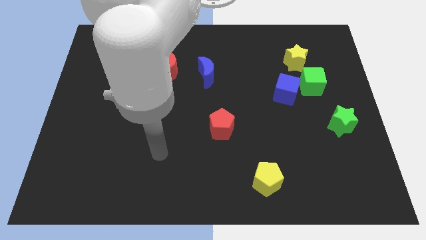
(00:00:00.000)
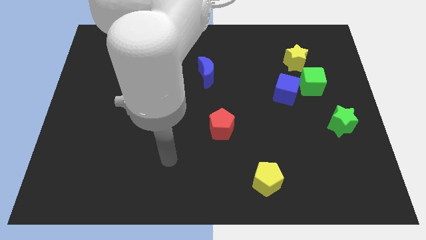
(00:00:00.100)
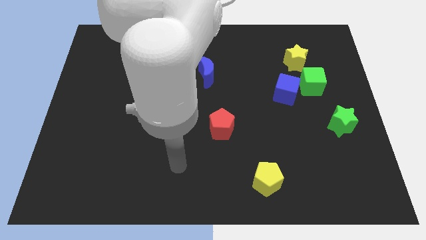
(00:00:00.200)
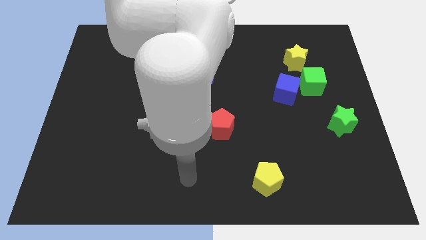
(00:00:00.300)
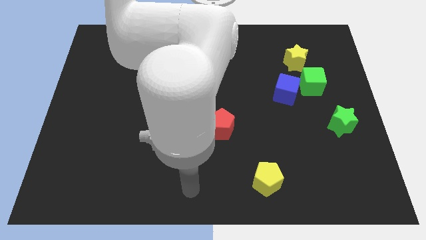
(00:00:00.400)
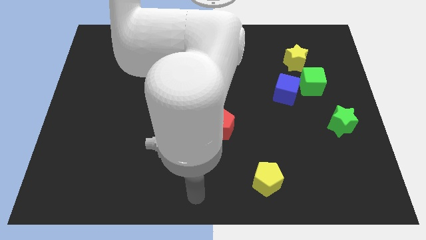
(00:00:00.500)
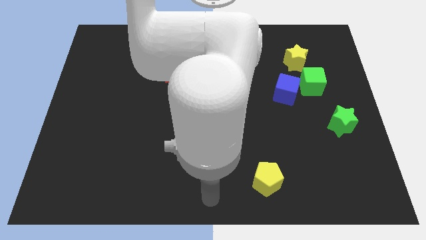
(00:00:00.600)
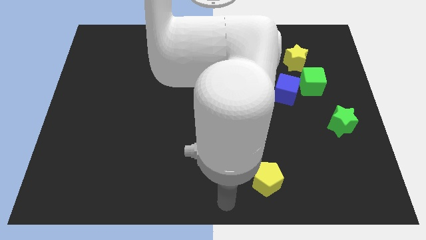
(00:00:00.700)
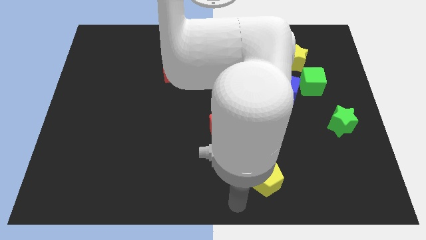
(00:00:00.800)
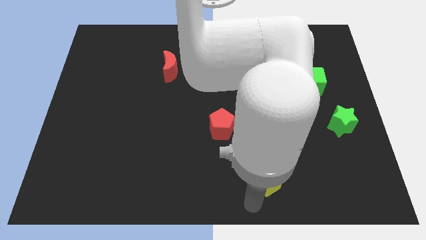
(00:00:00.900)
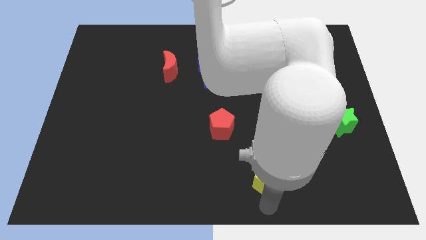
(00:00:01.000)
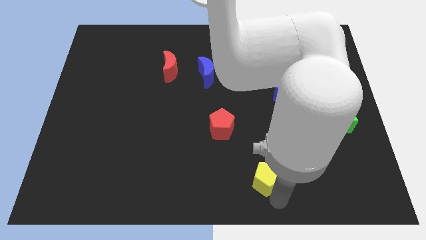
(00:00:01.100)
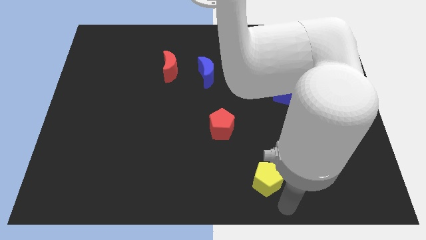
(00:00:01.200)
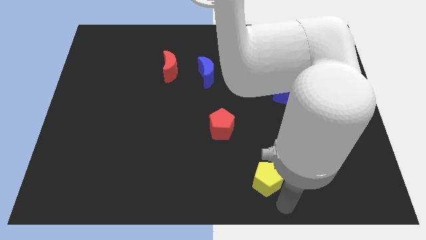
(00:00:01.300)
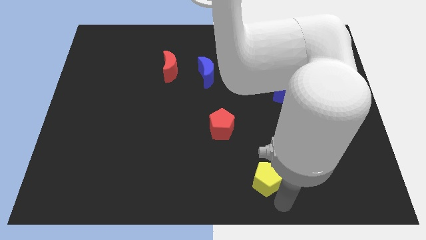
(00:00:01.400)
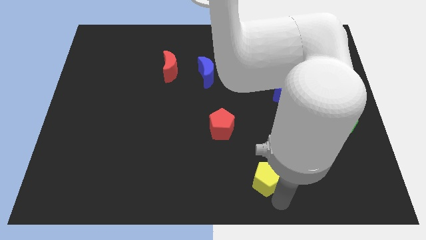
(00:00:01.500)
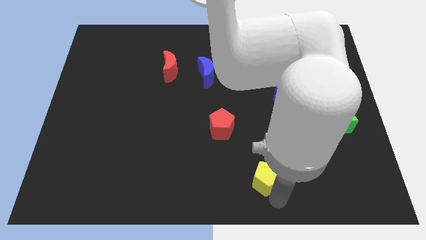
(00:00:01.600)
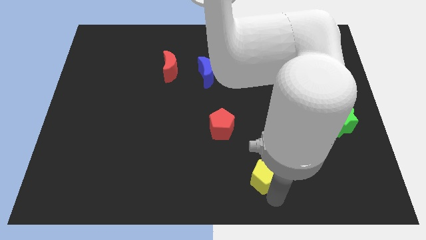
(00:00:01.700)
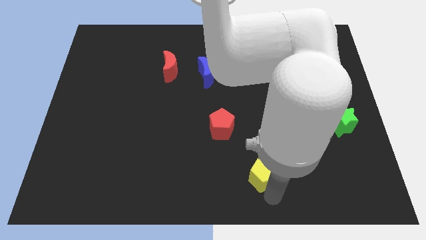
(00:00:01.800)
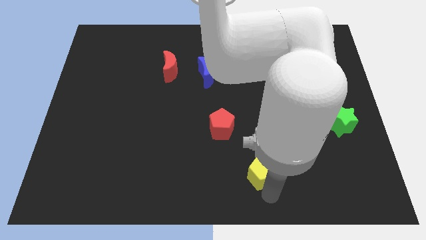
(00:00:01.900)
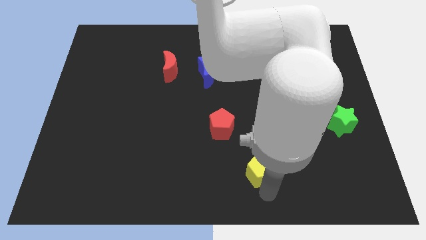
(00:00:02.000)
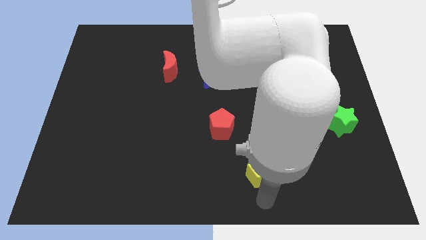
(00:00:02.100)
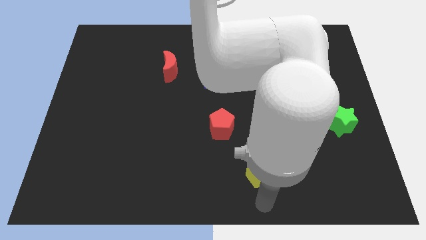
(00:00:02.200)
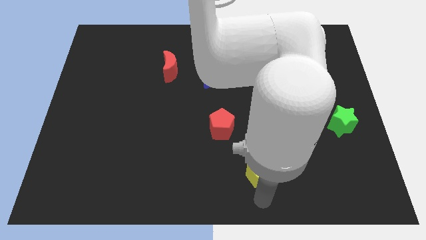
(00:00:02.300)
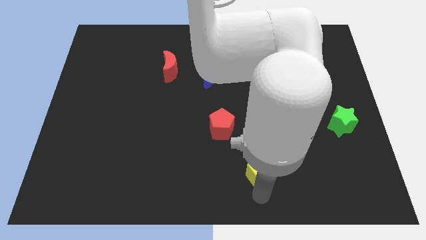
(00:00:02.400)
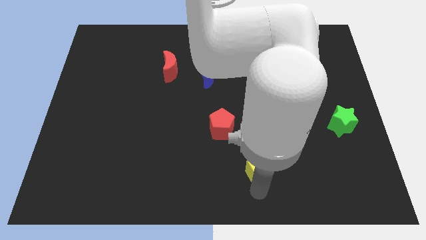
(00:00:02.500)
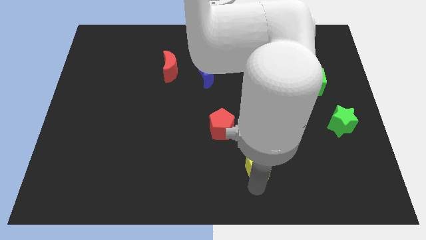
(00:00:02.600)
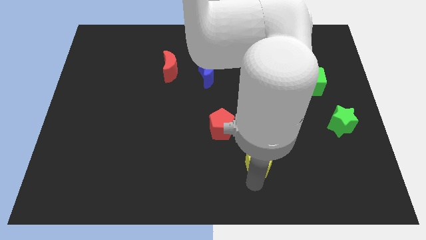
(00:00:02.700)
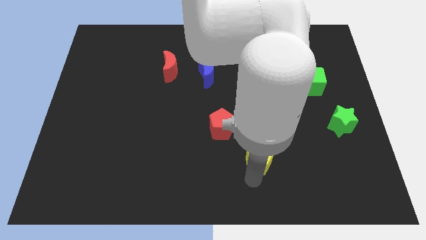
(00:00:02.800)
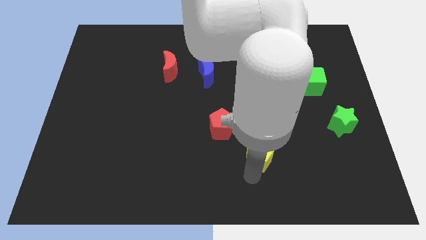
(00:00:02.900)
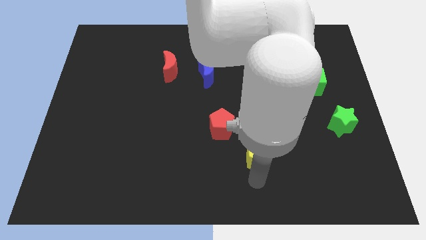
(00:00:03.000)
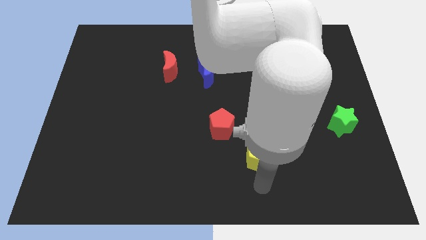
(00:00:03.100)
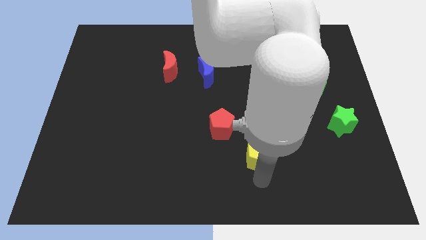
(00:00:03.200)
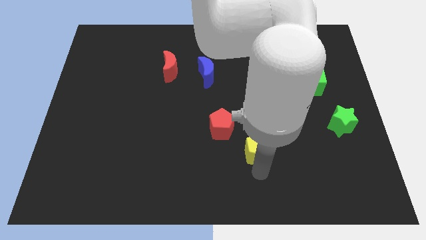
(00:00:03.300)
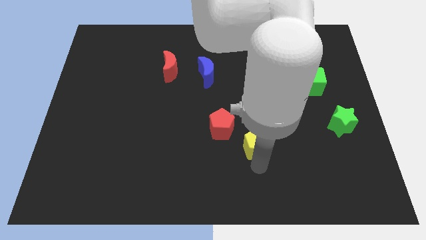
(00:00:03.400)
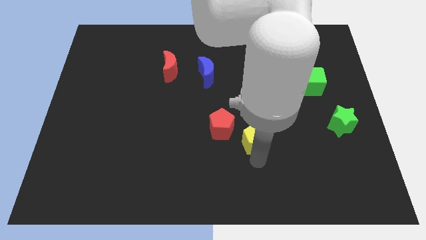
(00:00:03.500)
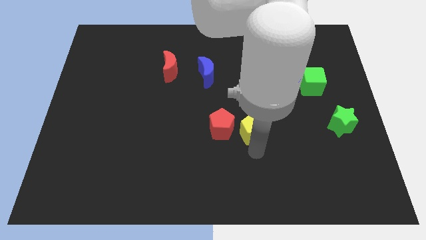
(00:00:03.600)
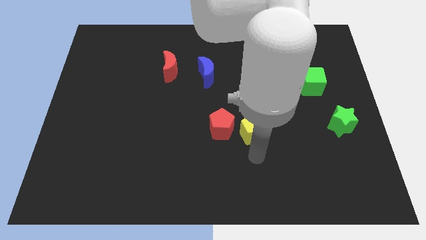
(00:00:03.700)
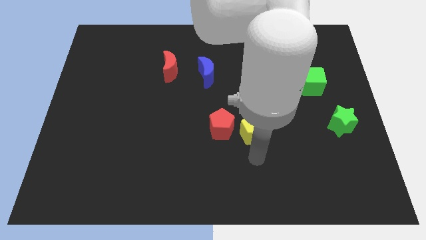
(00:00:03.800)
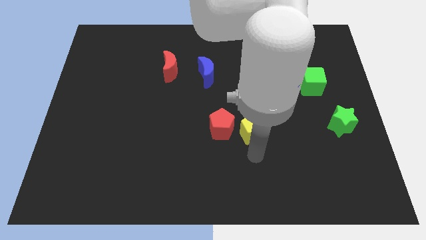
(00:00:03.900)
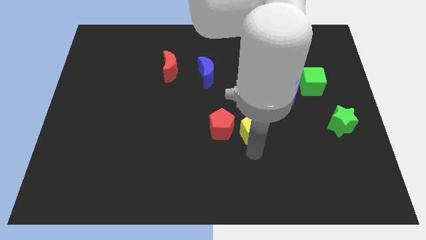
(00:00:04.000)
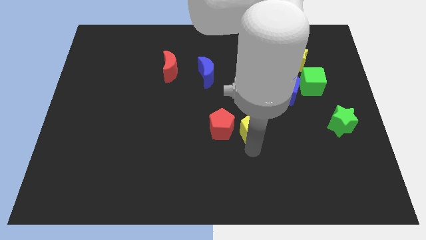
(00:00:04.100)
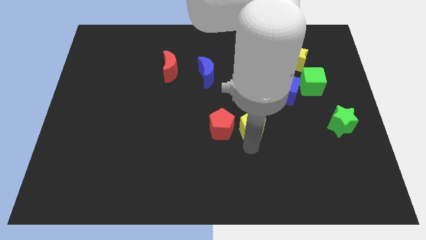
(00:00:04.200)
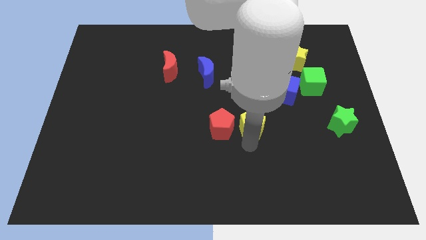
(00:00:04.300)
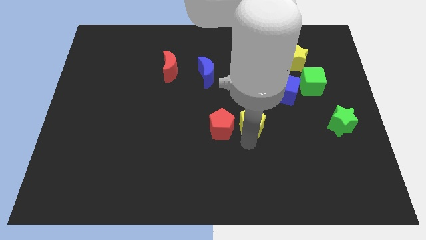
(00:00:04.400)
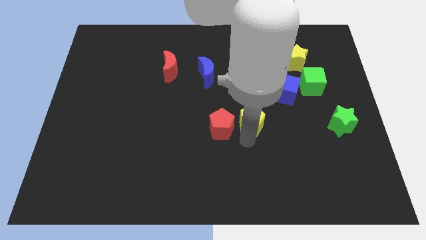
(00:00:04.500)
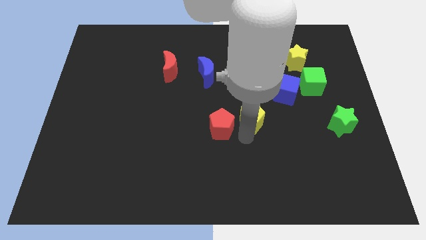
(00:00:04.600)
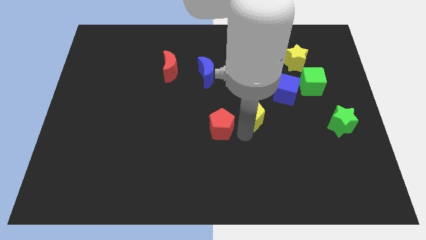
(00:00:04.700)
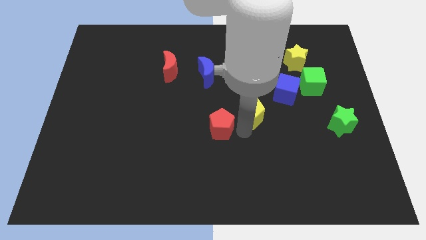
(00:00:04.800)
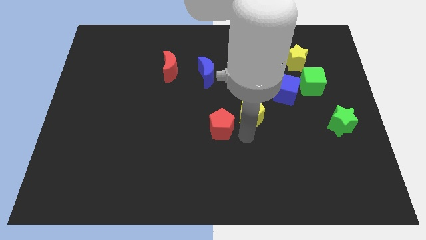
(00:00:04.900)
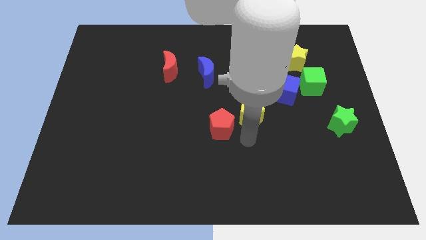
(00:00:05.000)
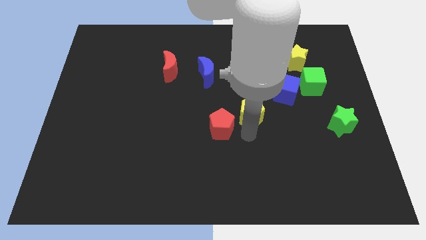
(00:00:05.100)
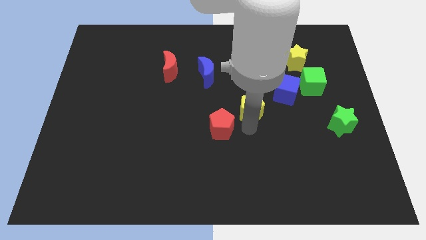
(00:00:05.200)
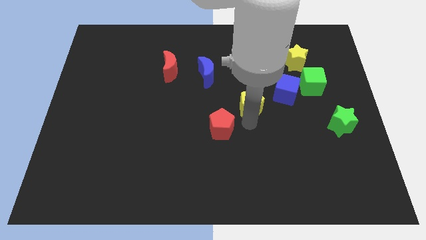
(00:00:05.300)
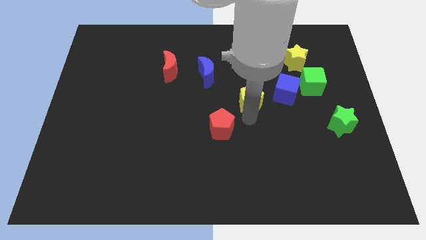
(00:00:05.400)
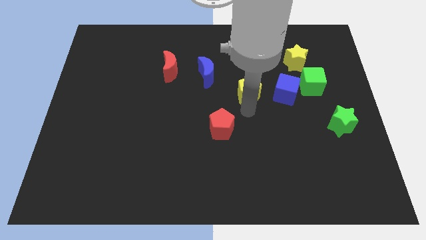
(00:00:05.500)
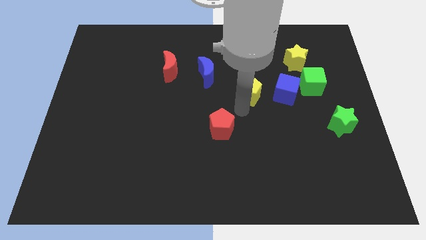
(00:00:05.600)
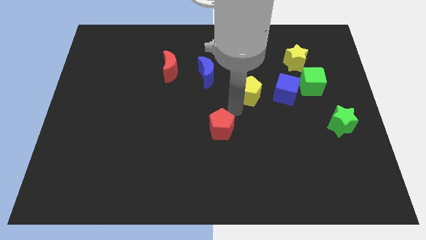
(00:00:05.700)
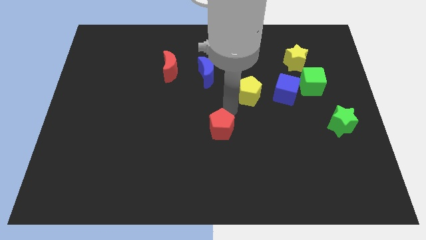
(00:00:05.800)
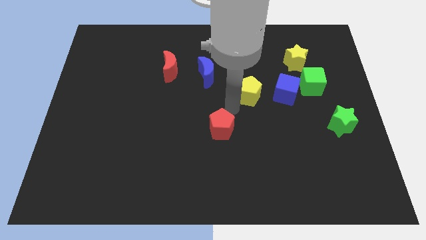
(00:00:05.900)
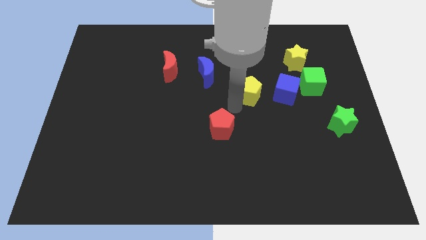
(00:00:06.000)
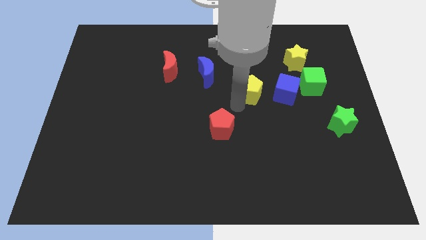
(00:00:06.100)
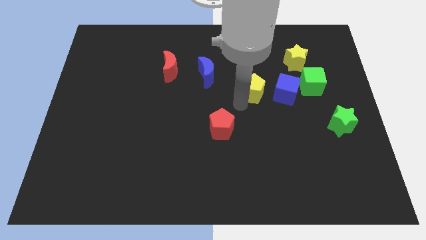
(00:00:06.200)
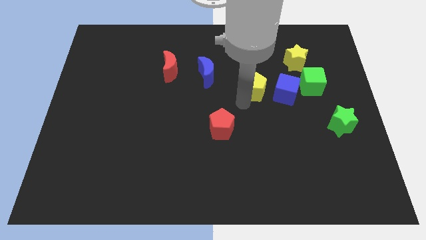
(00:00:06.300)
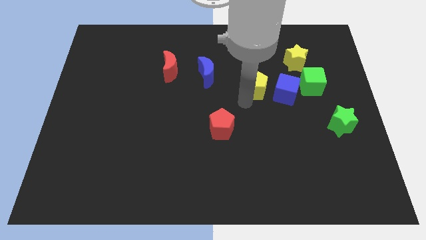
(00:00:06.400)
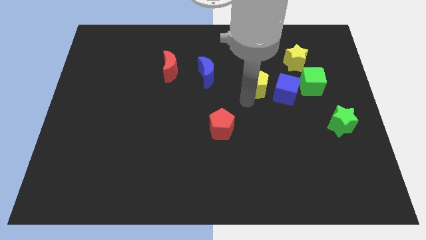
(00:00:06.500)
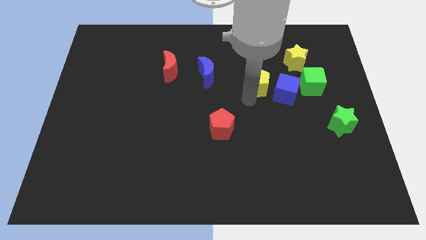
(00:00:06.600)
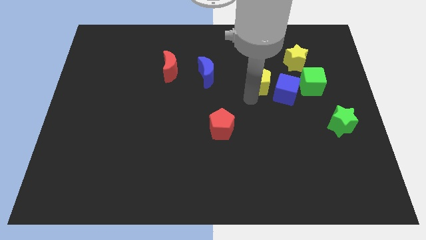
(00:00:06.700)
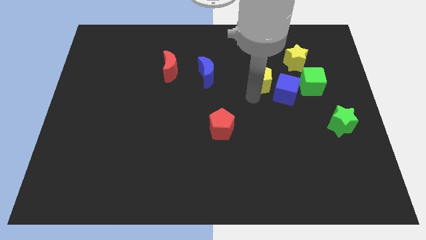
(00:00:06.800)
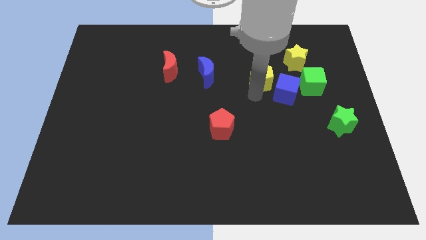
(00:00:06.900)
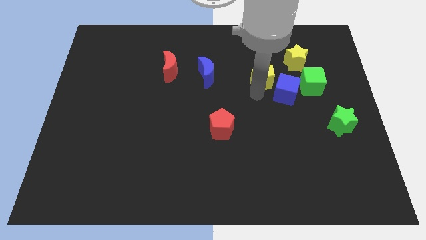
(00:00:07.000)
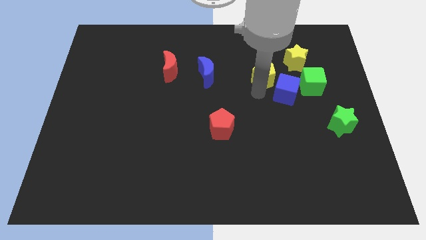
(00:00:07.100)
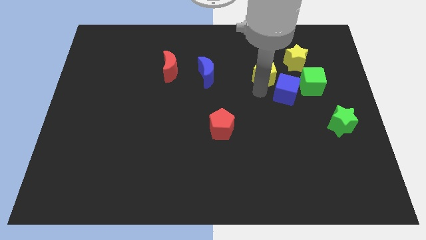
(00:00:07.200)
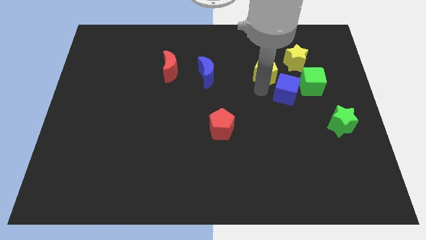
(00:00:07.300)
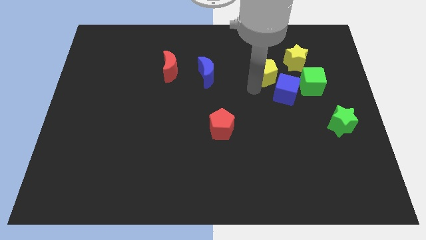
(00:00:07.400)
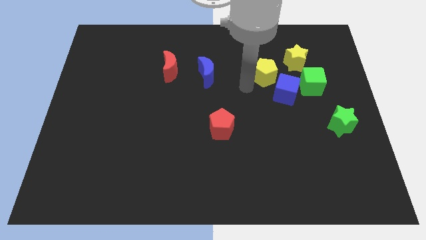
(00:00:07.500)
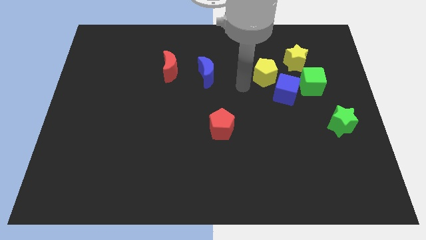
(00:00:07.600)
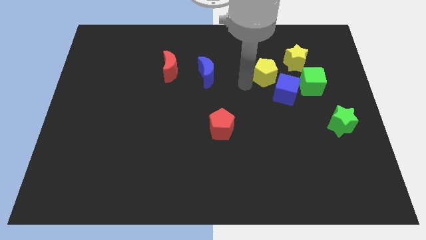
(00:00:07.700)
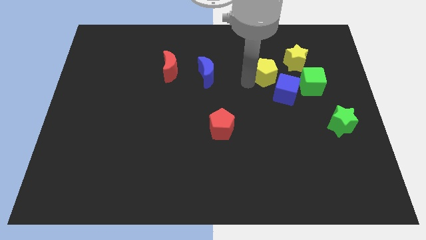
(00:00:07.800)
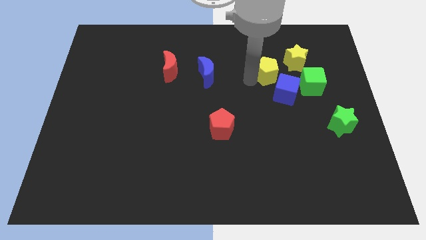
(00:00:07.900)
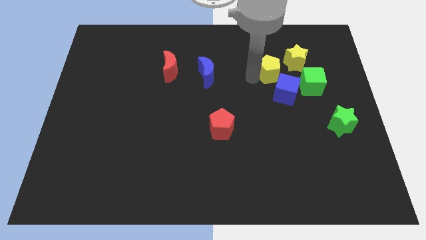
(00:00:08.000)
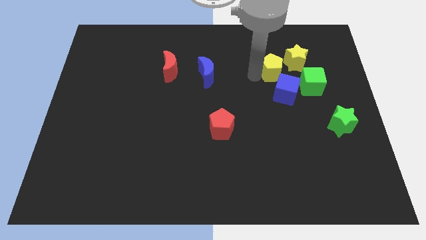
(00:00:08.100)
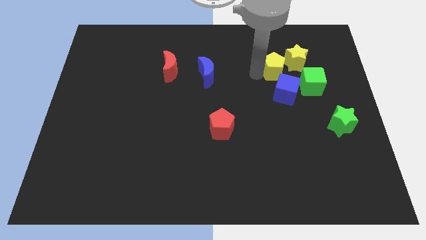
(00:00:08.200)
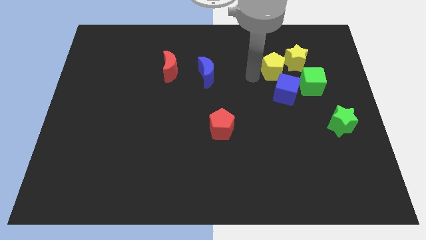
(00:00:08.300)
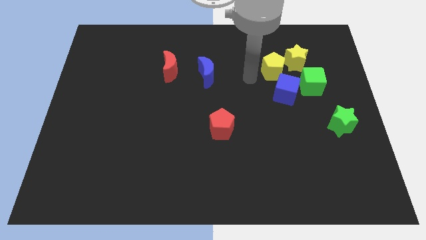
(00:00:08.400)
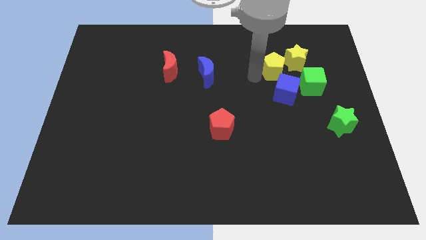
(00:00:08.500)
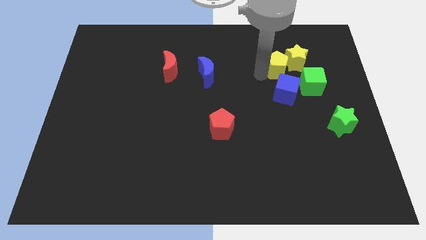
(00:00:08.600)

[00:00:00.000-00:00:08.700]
put the yellow pentagon towards the yellow star
